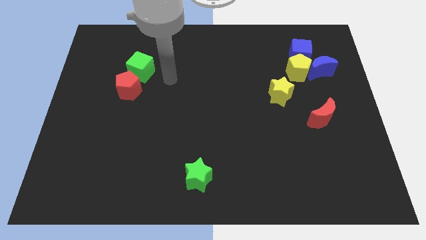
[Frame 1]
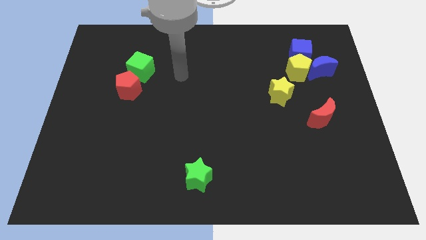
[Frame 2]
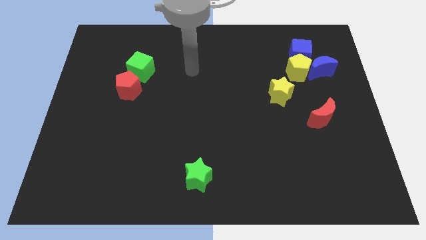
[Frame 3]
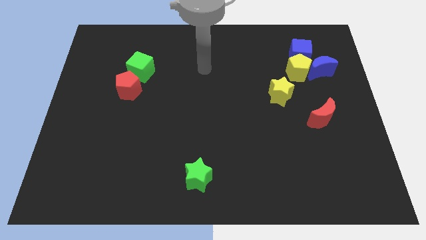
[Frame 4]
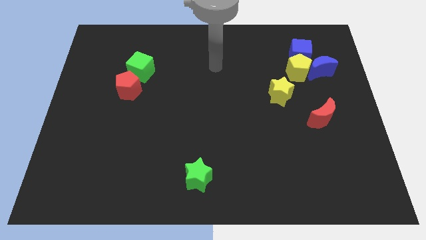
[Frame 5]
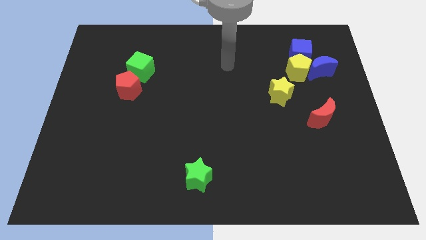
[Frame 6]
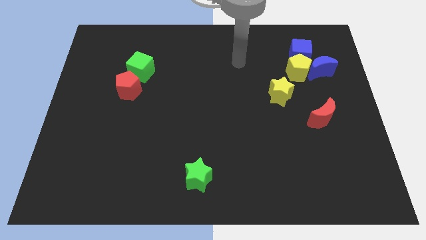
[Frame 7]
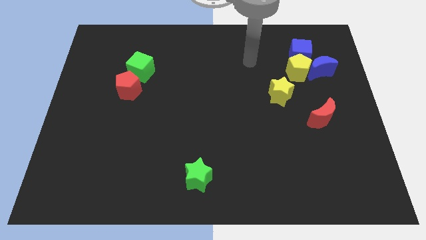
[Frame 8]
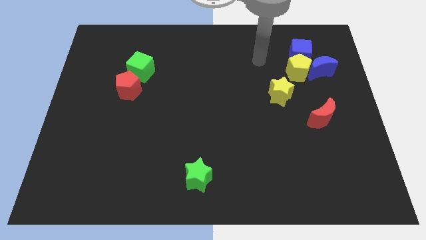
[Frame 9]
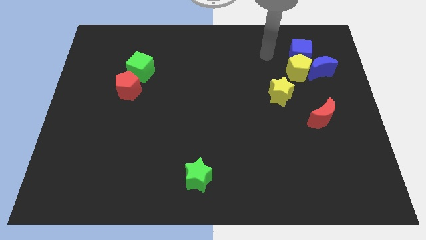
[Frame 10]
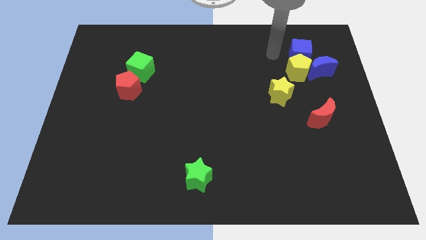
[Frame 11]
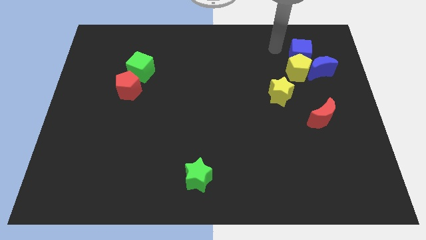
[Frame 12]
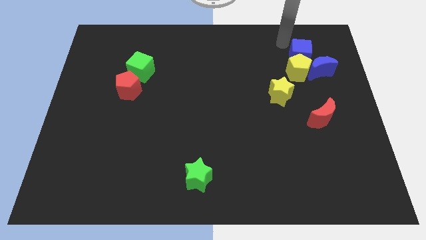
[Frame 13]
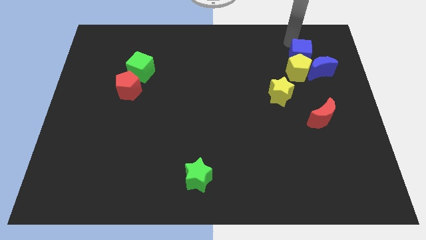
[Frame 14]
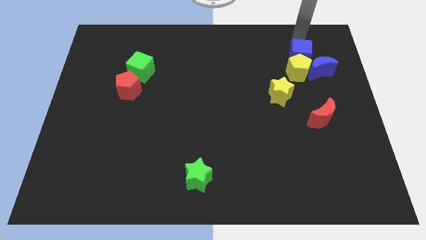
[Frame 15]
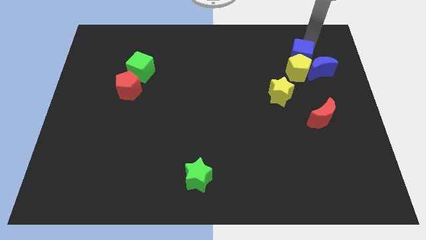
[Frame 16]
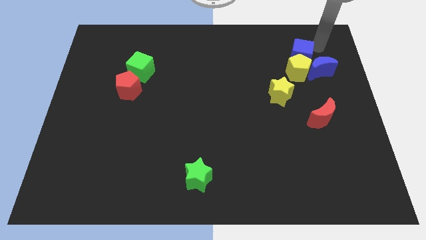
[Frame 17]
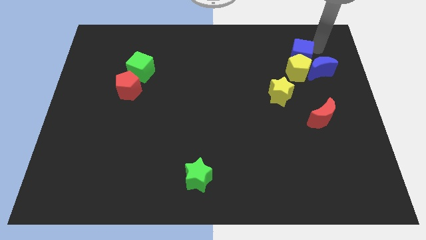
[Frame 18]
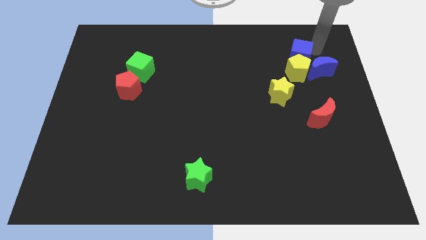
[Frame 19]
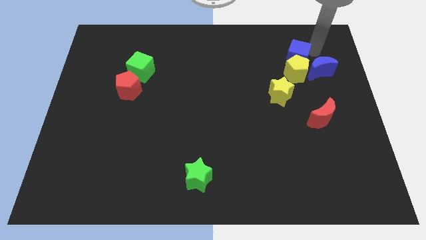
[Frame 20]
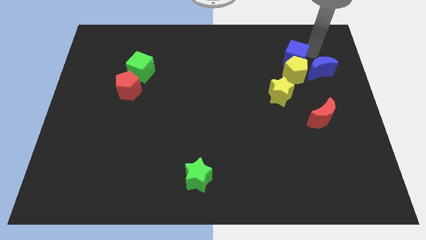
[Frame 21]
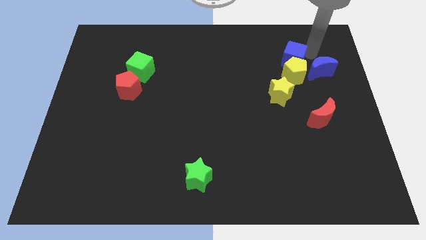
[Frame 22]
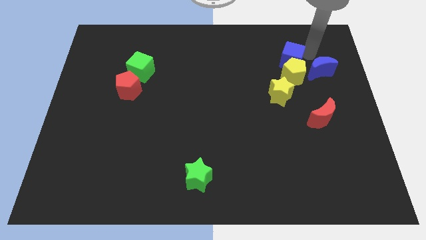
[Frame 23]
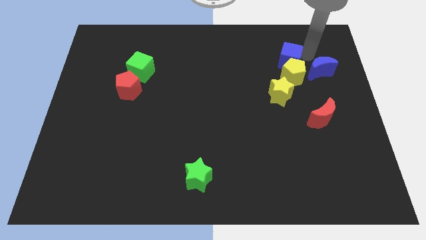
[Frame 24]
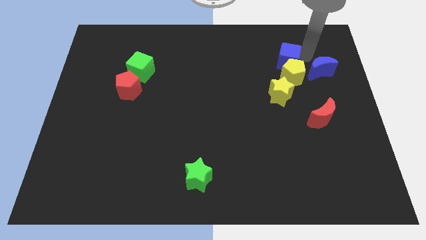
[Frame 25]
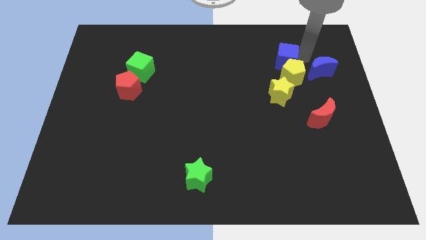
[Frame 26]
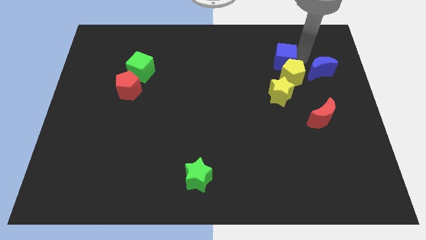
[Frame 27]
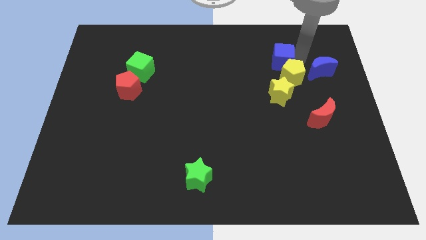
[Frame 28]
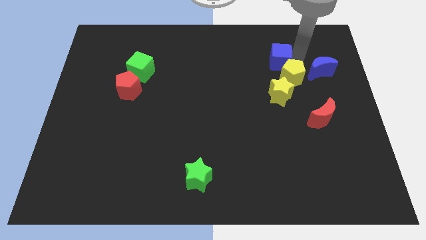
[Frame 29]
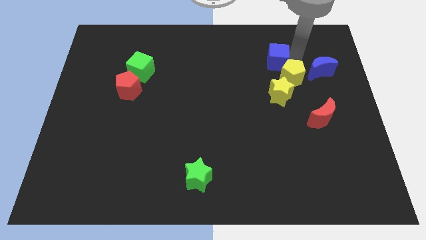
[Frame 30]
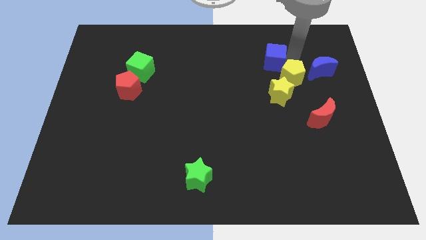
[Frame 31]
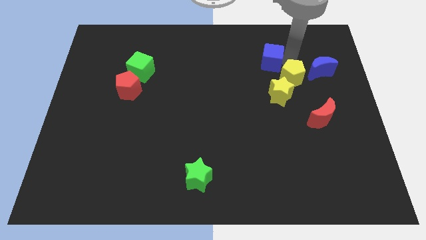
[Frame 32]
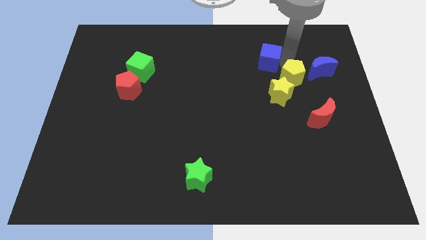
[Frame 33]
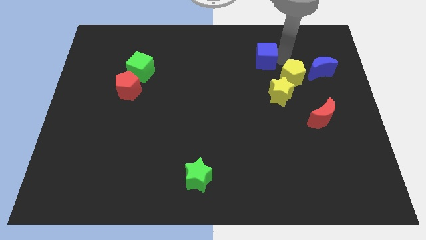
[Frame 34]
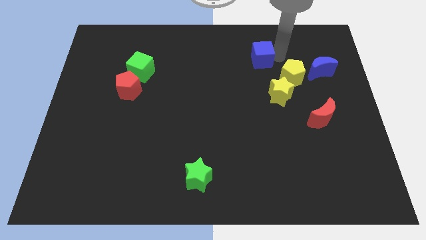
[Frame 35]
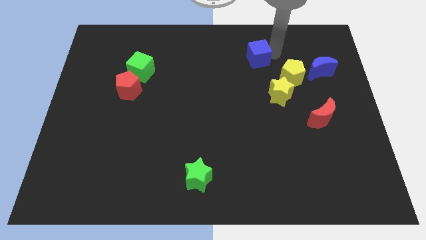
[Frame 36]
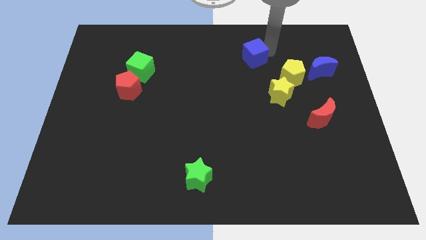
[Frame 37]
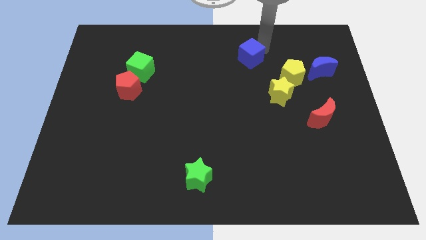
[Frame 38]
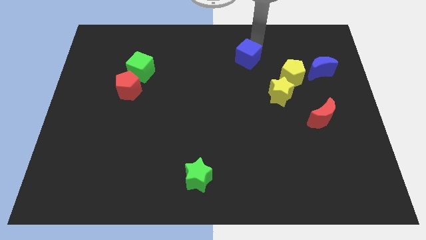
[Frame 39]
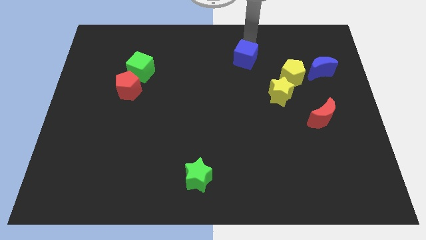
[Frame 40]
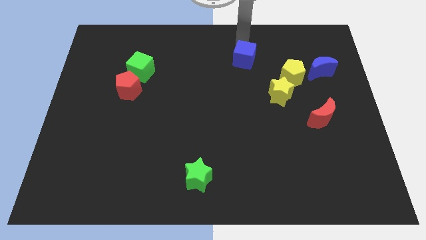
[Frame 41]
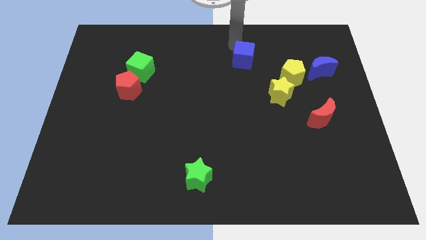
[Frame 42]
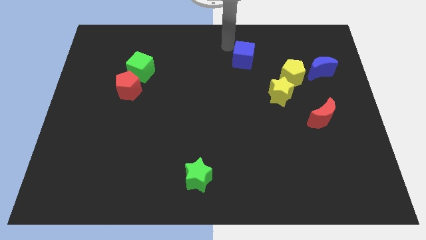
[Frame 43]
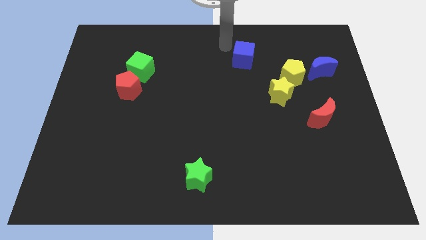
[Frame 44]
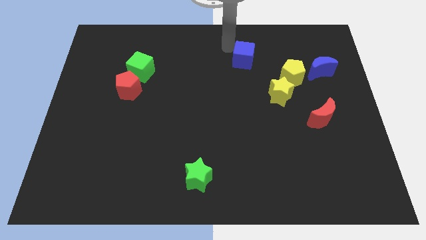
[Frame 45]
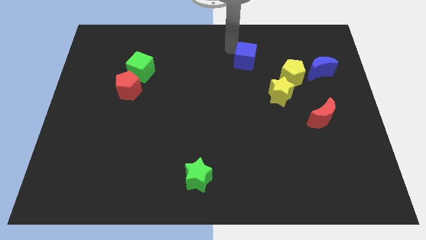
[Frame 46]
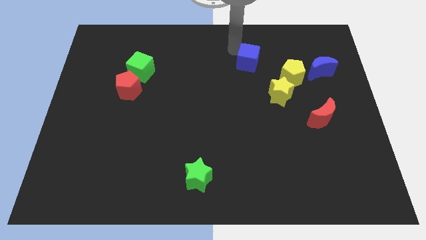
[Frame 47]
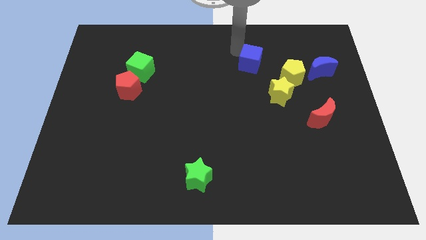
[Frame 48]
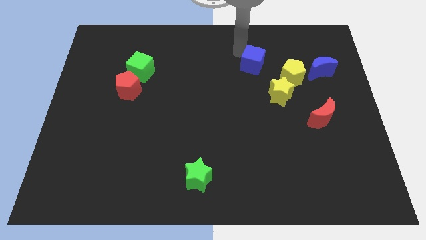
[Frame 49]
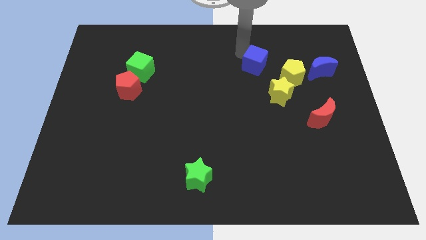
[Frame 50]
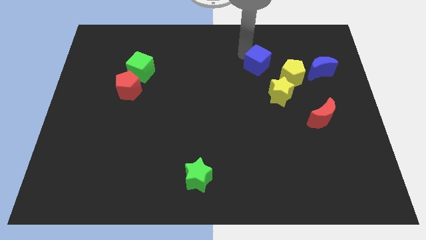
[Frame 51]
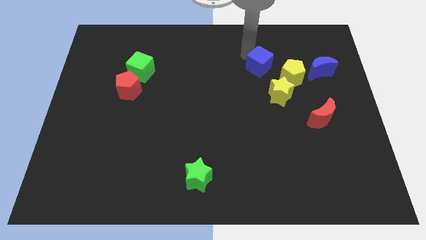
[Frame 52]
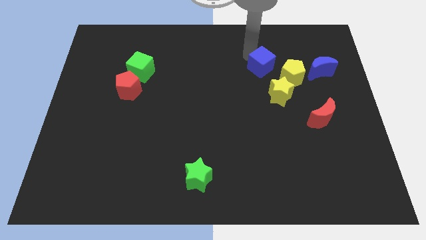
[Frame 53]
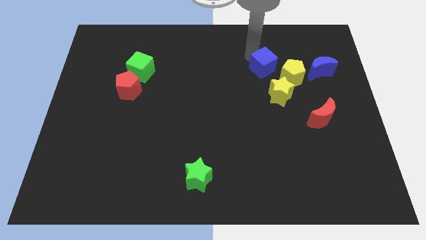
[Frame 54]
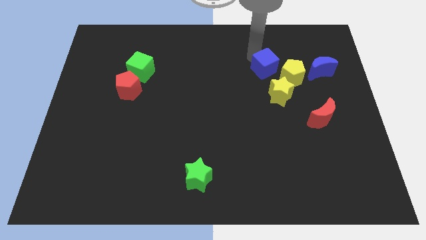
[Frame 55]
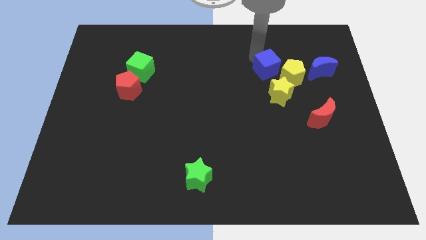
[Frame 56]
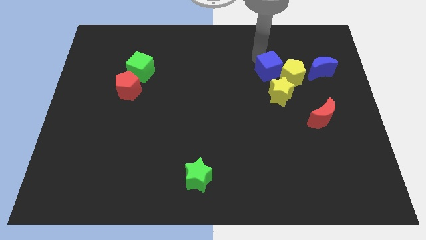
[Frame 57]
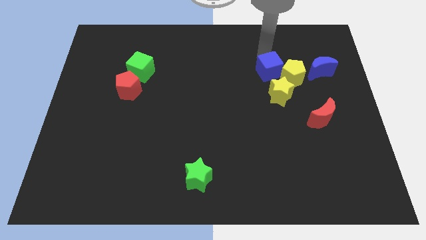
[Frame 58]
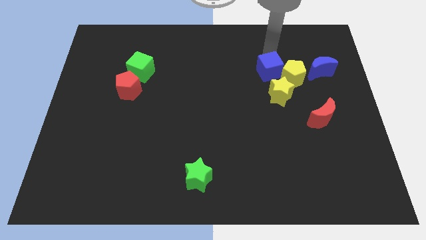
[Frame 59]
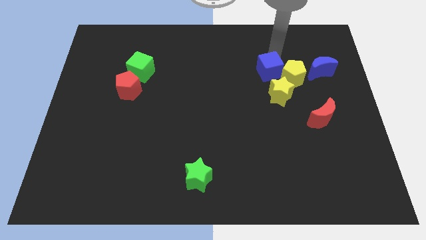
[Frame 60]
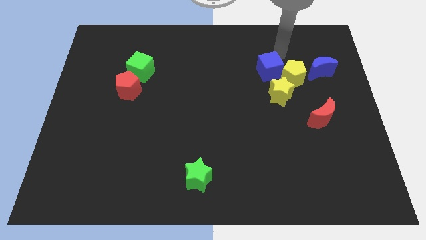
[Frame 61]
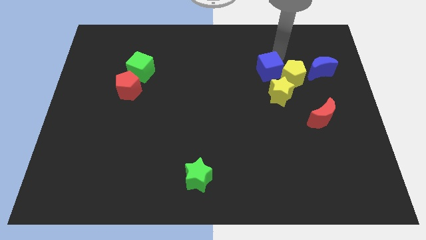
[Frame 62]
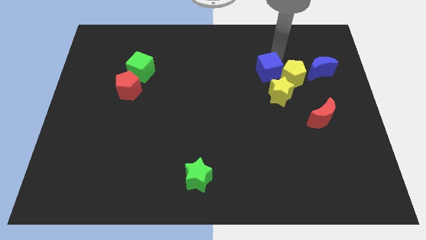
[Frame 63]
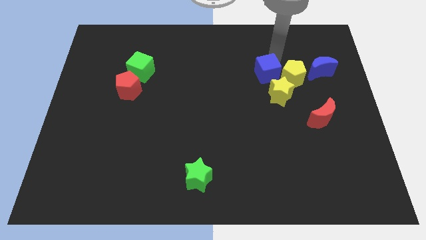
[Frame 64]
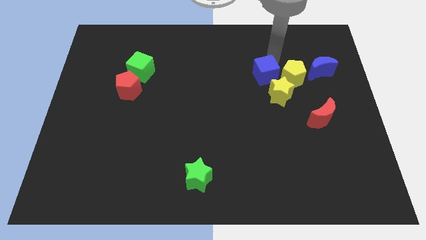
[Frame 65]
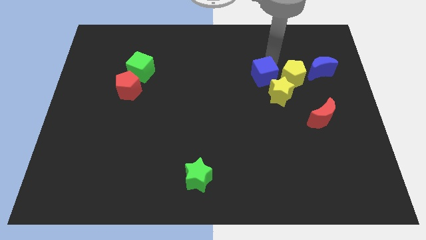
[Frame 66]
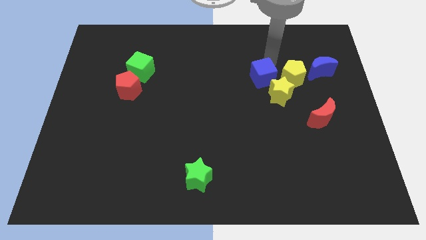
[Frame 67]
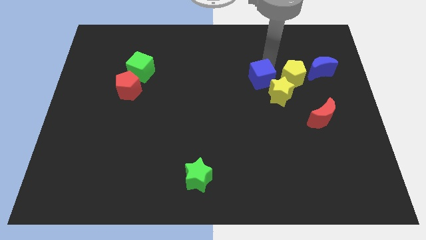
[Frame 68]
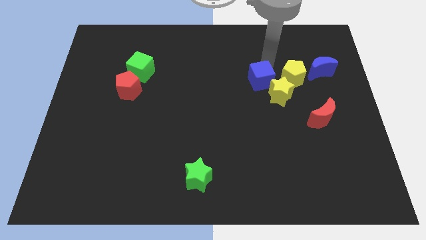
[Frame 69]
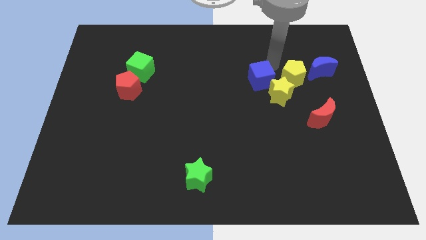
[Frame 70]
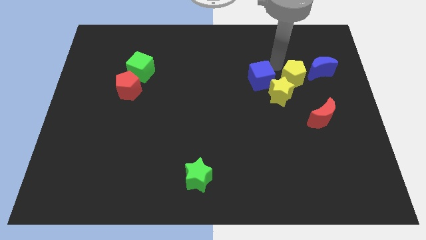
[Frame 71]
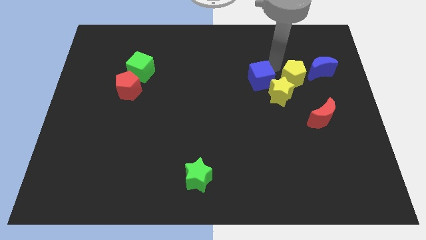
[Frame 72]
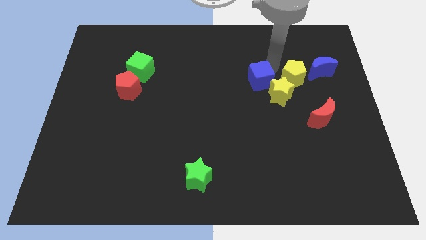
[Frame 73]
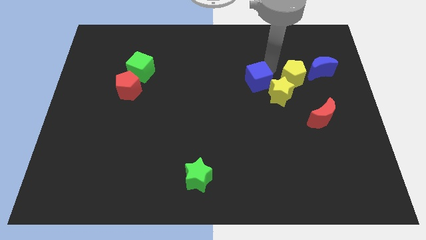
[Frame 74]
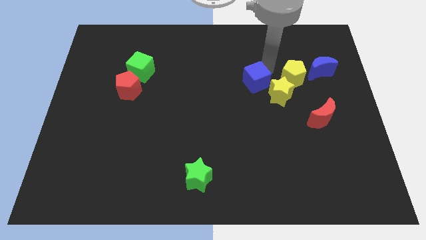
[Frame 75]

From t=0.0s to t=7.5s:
slide the blue cube to the center
